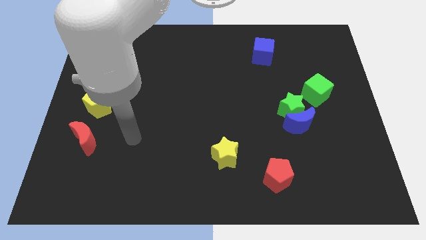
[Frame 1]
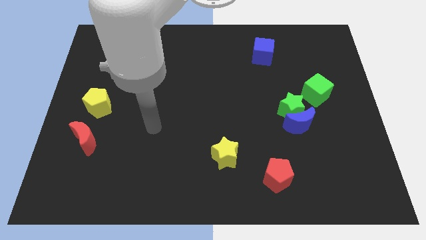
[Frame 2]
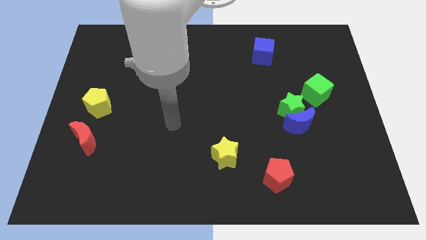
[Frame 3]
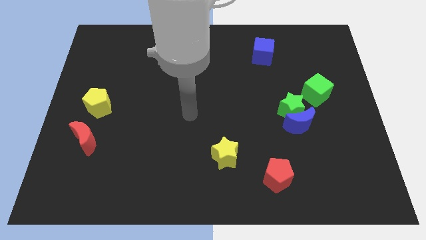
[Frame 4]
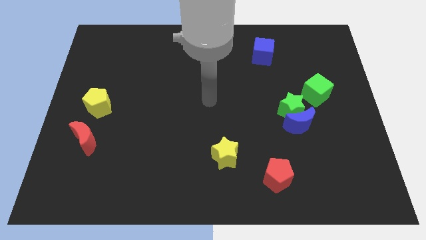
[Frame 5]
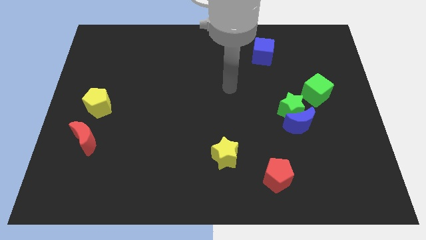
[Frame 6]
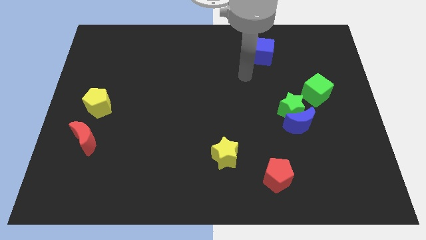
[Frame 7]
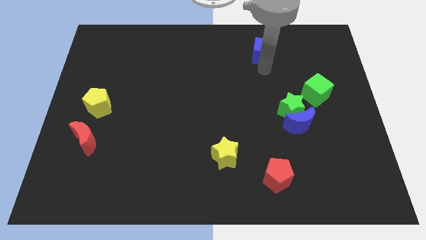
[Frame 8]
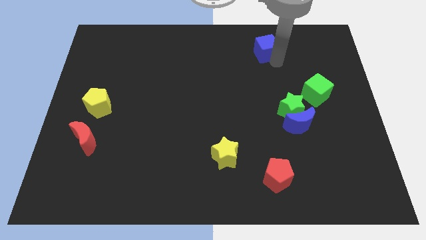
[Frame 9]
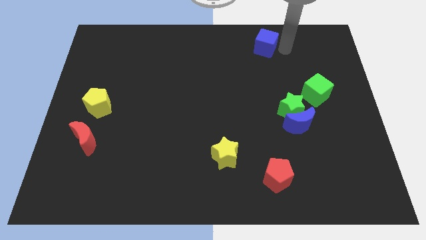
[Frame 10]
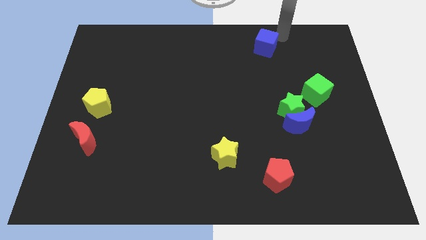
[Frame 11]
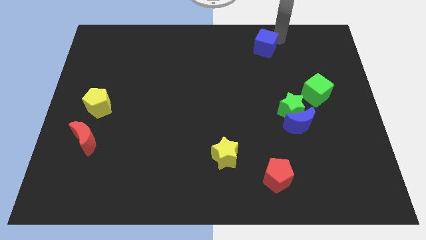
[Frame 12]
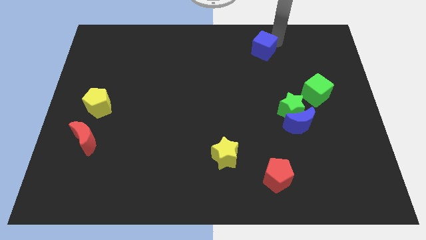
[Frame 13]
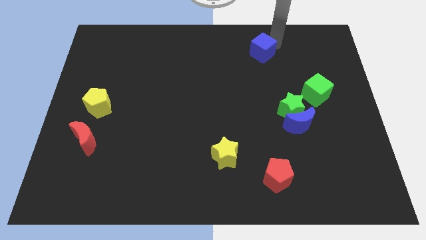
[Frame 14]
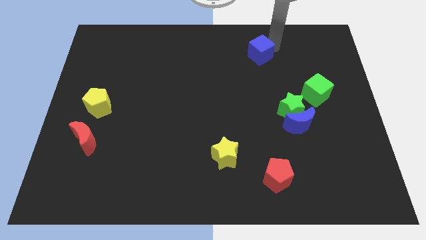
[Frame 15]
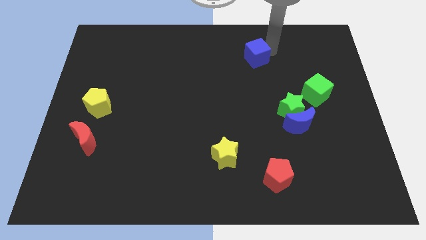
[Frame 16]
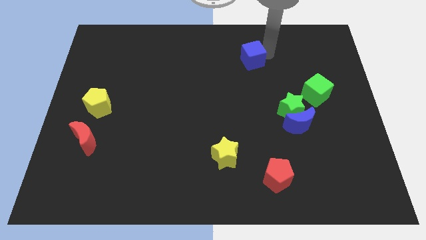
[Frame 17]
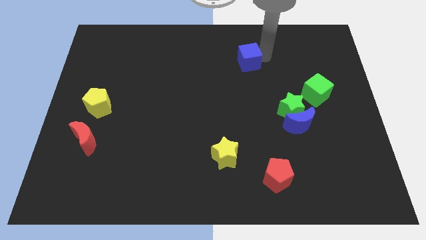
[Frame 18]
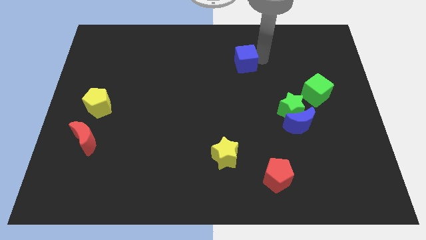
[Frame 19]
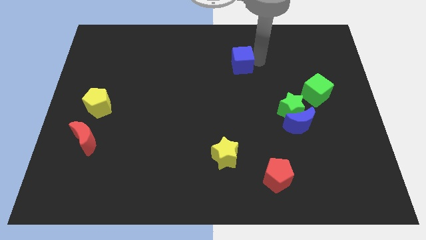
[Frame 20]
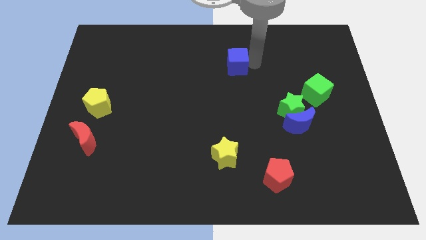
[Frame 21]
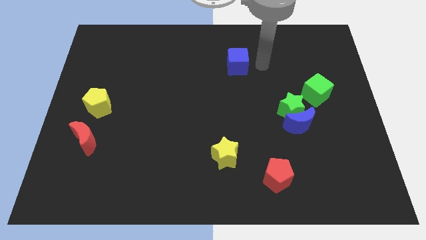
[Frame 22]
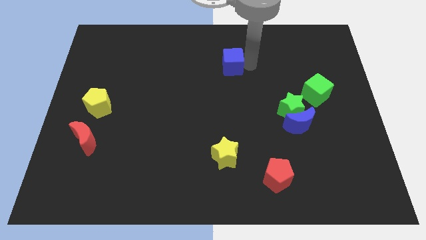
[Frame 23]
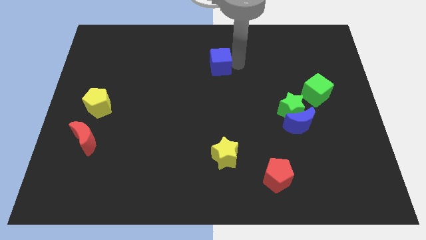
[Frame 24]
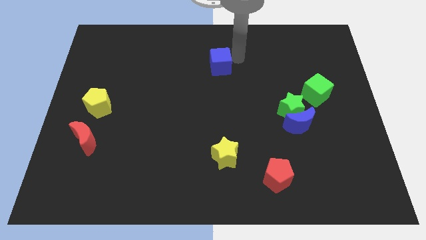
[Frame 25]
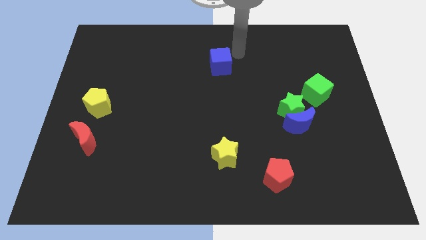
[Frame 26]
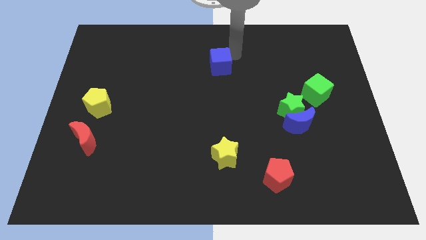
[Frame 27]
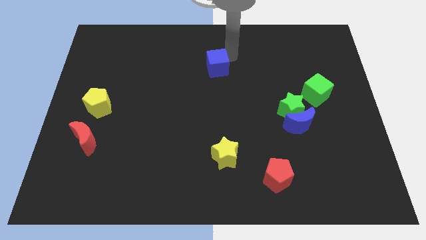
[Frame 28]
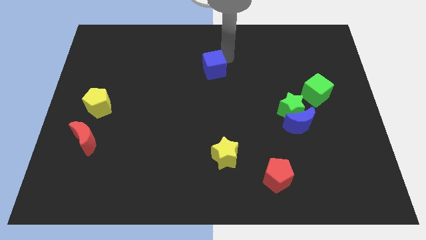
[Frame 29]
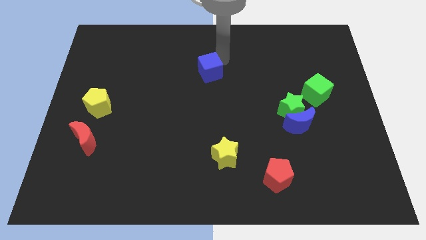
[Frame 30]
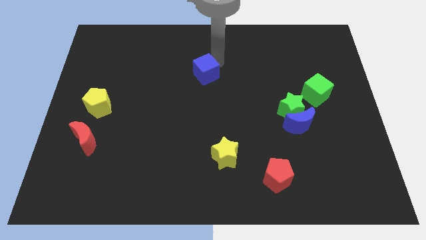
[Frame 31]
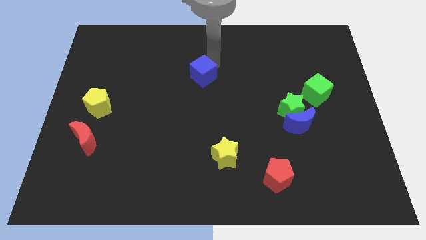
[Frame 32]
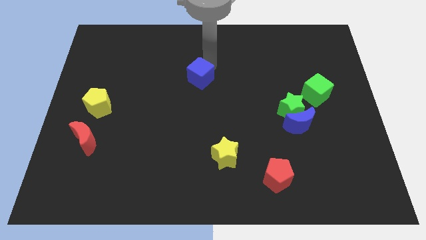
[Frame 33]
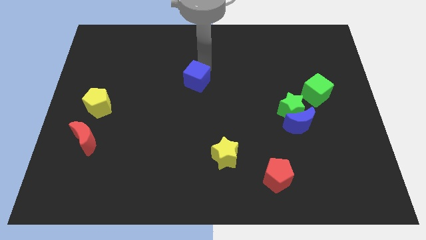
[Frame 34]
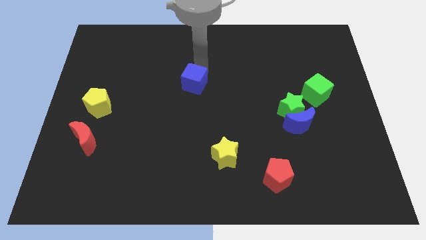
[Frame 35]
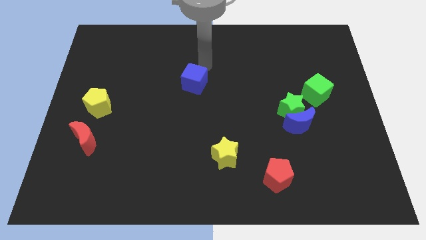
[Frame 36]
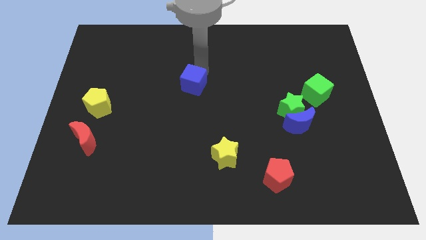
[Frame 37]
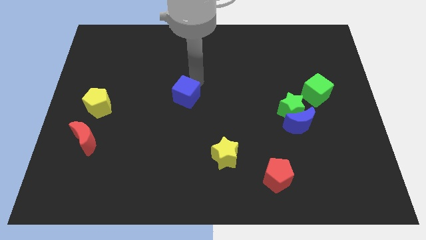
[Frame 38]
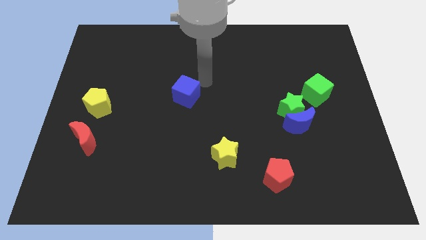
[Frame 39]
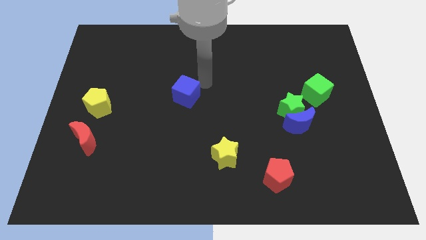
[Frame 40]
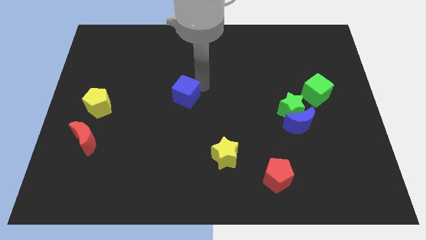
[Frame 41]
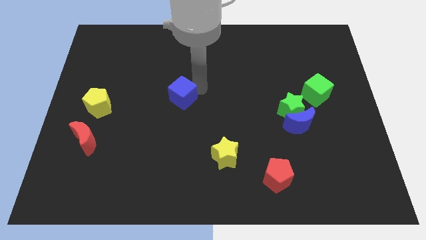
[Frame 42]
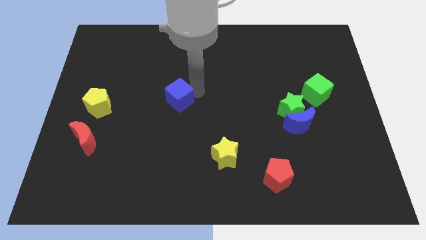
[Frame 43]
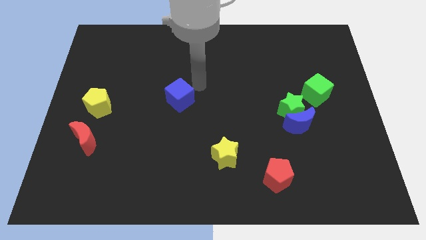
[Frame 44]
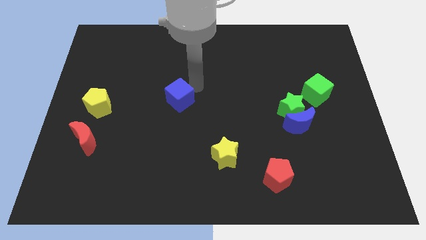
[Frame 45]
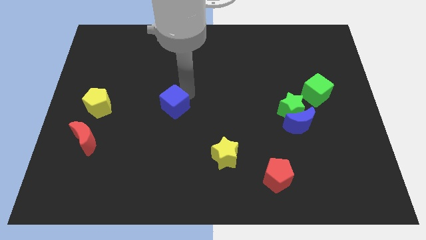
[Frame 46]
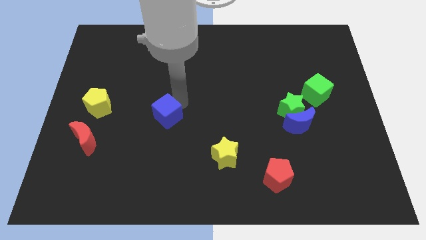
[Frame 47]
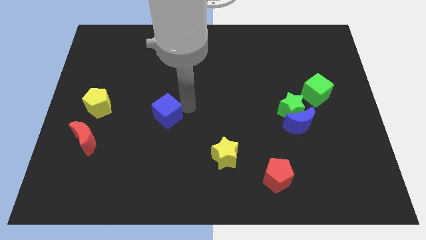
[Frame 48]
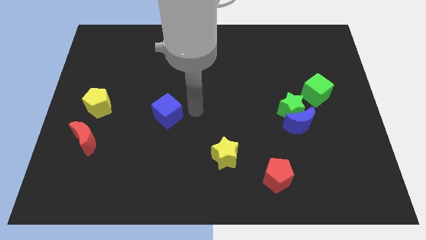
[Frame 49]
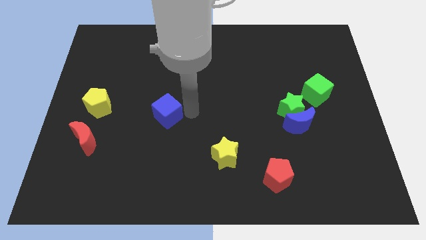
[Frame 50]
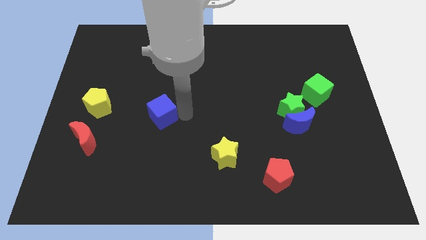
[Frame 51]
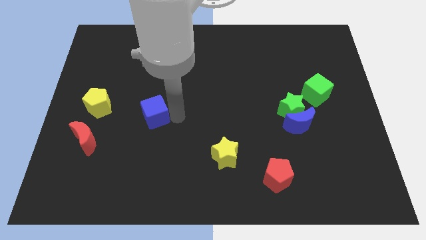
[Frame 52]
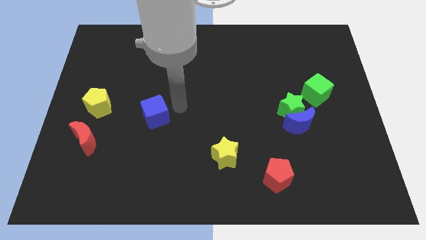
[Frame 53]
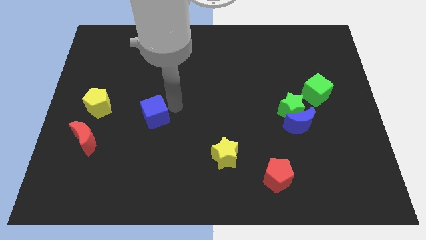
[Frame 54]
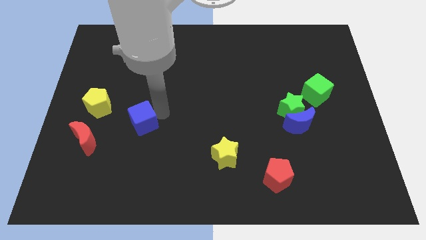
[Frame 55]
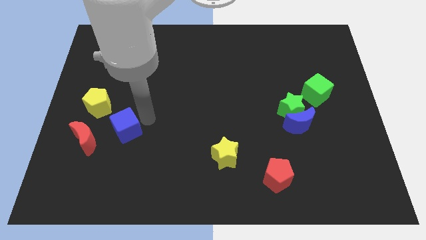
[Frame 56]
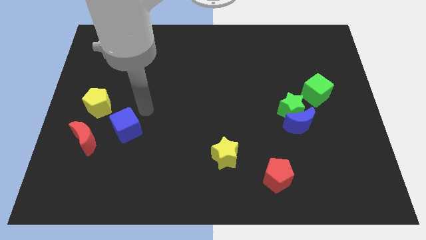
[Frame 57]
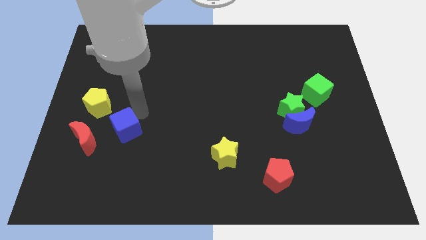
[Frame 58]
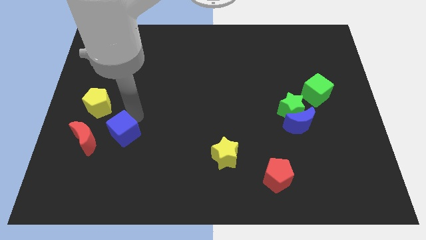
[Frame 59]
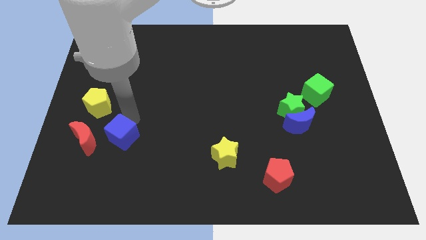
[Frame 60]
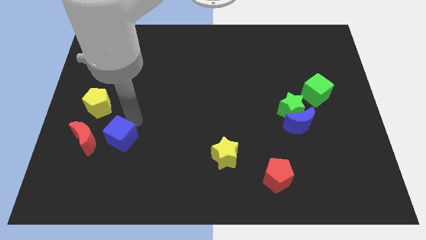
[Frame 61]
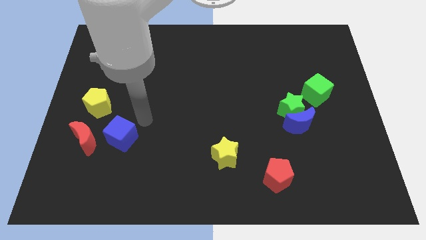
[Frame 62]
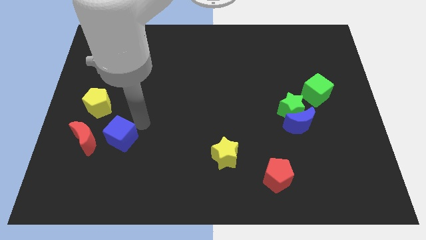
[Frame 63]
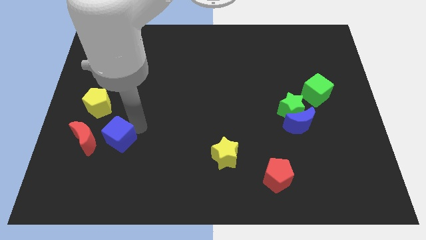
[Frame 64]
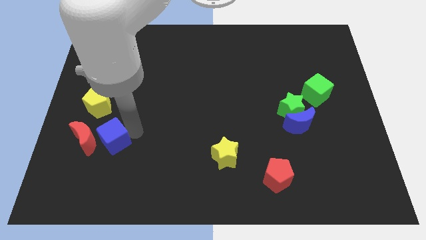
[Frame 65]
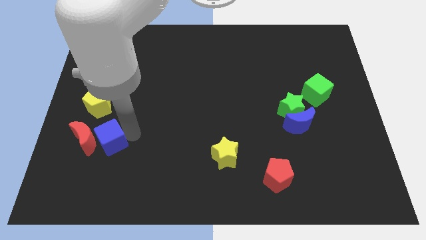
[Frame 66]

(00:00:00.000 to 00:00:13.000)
push the blue cube to the bottom side of the yellow pentagon
